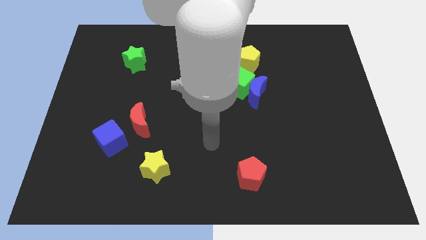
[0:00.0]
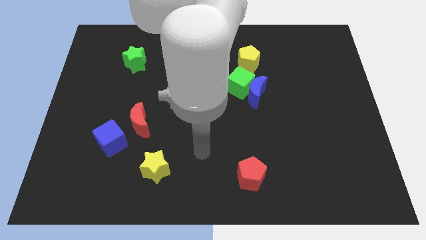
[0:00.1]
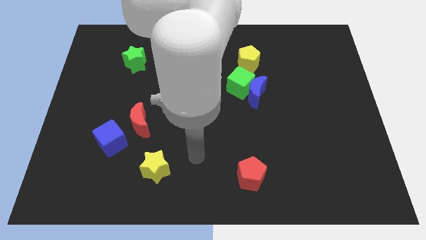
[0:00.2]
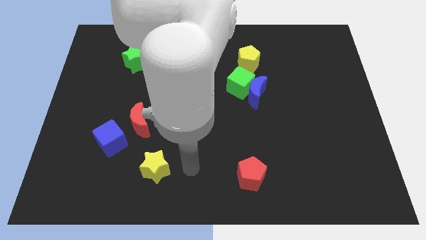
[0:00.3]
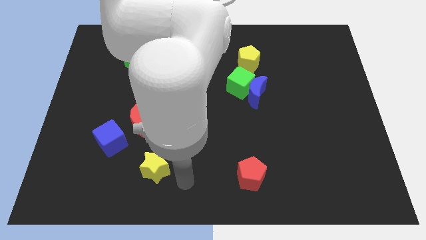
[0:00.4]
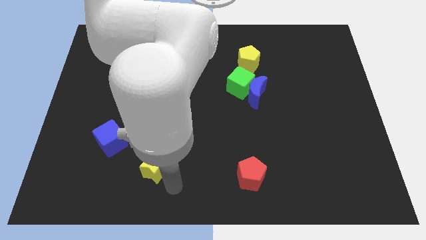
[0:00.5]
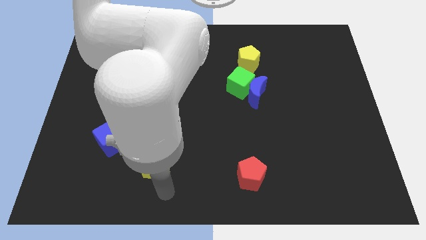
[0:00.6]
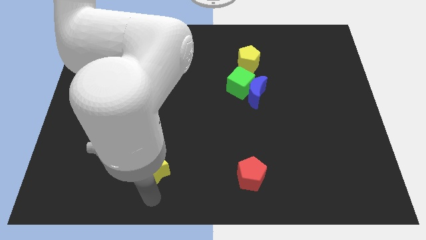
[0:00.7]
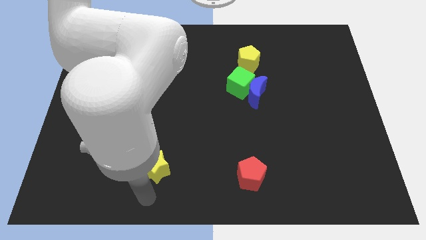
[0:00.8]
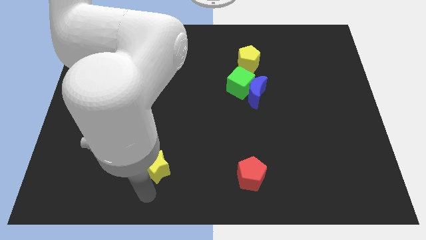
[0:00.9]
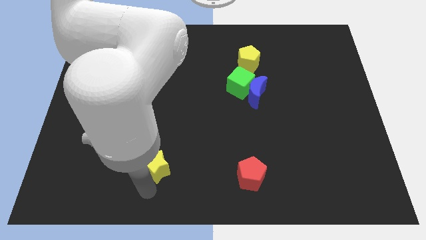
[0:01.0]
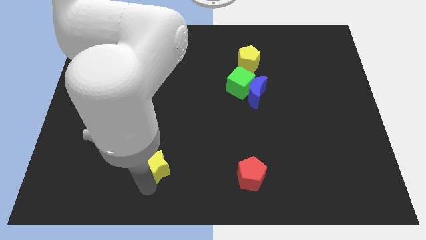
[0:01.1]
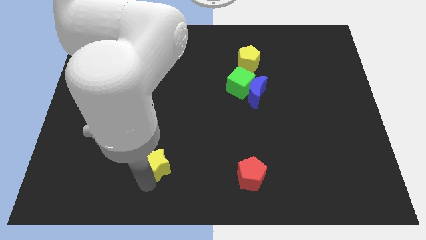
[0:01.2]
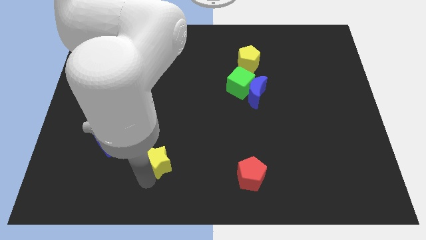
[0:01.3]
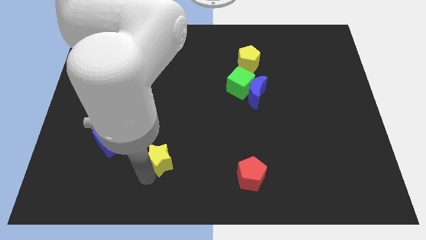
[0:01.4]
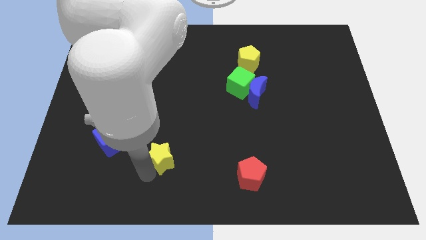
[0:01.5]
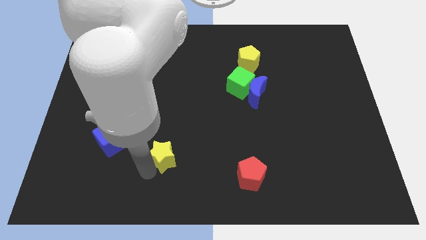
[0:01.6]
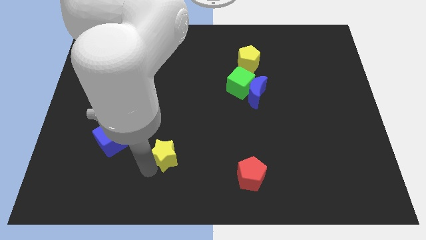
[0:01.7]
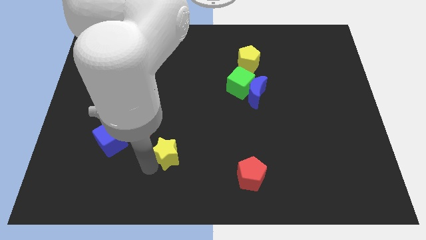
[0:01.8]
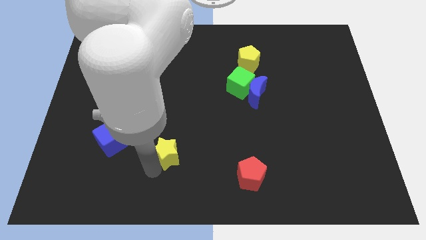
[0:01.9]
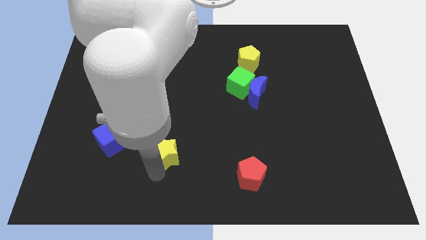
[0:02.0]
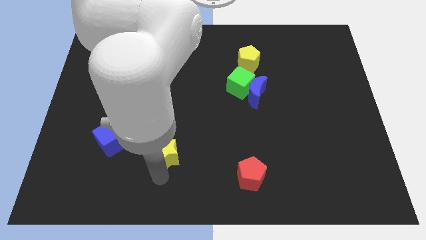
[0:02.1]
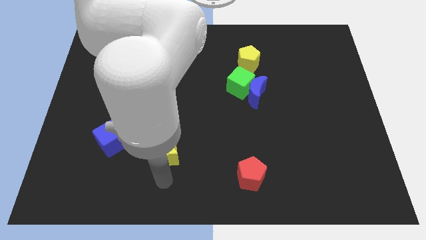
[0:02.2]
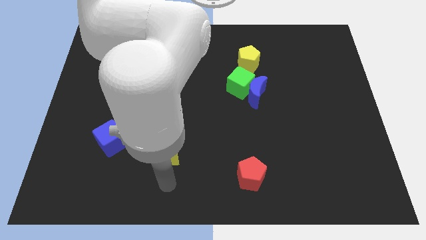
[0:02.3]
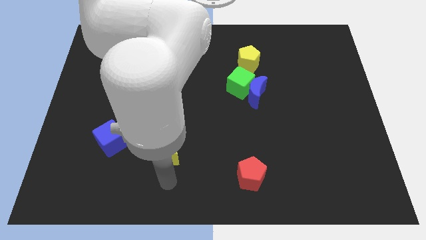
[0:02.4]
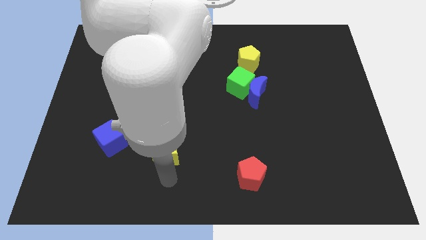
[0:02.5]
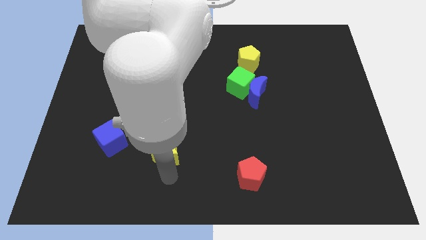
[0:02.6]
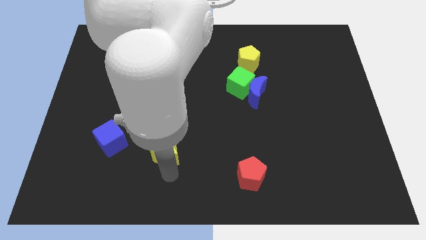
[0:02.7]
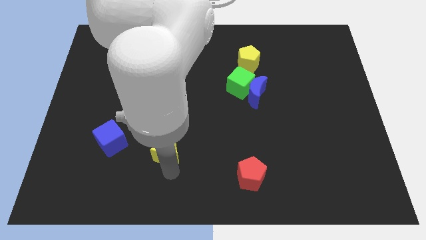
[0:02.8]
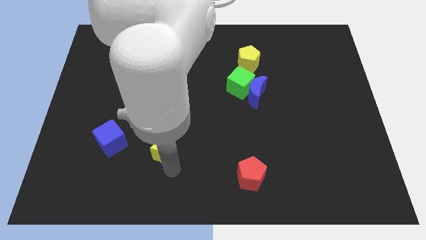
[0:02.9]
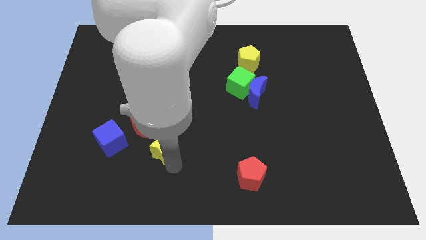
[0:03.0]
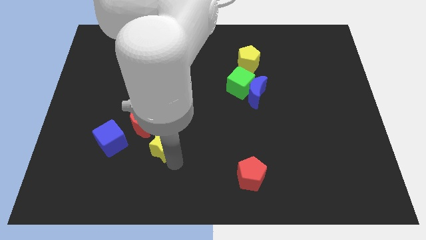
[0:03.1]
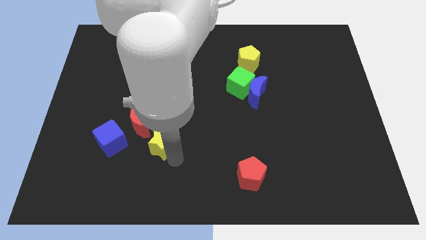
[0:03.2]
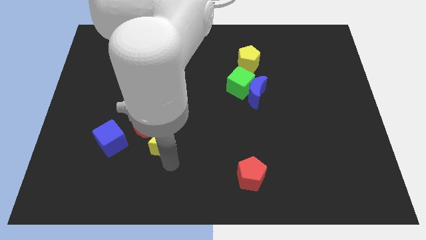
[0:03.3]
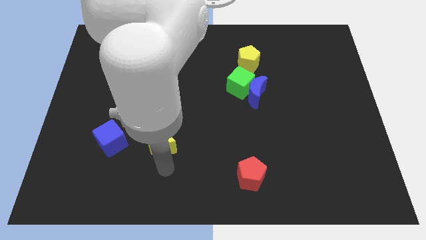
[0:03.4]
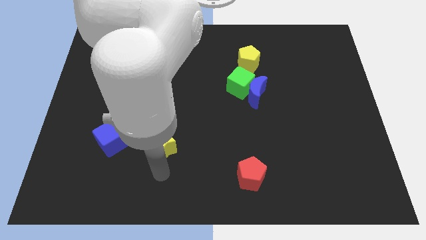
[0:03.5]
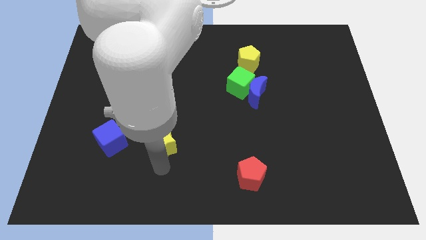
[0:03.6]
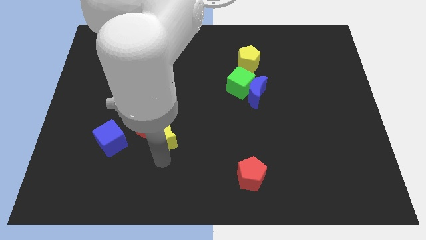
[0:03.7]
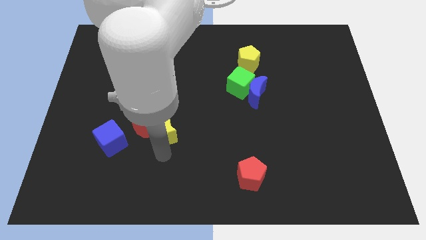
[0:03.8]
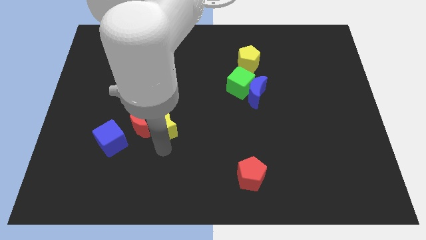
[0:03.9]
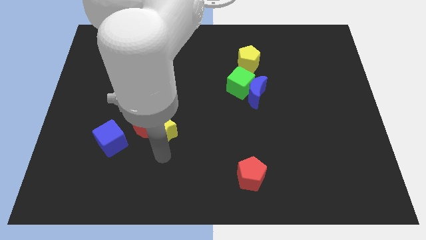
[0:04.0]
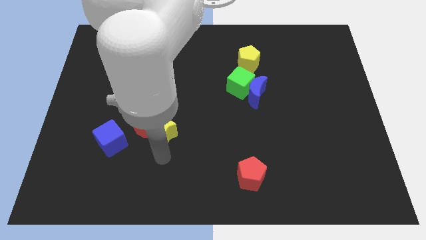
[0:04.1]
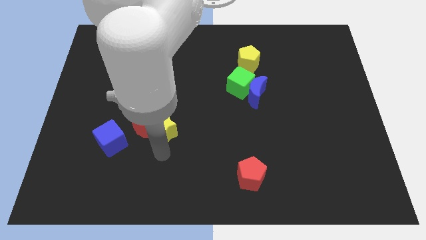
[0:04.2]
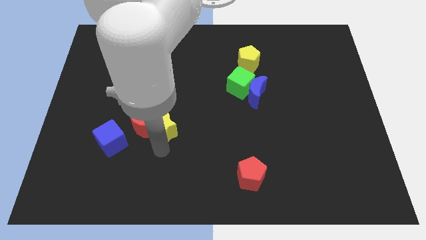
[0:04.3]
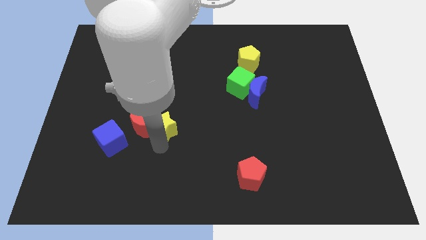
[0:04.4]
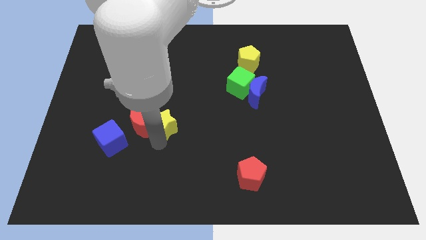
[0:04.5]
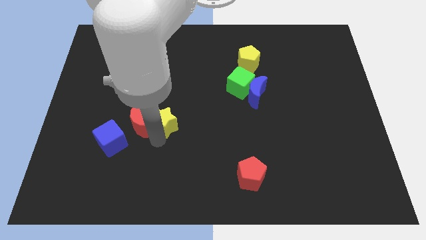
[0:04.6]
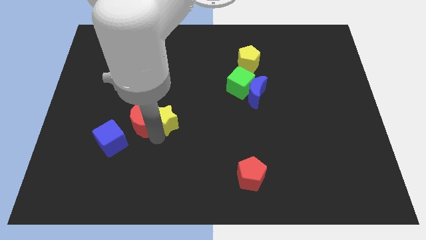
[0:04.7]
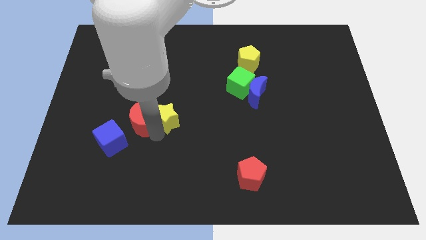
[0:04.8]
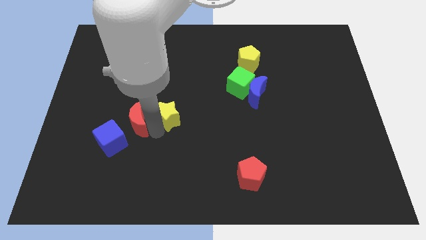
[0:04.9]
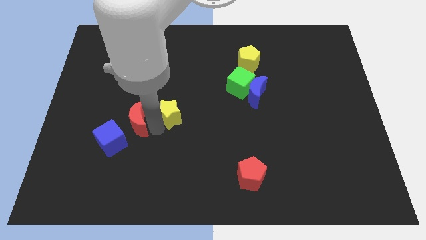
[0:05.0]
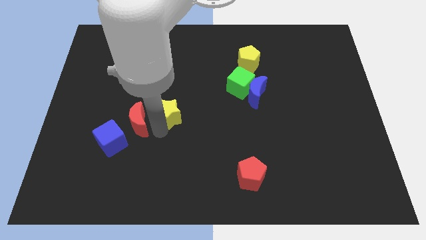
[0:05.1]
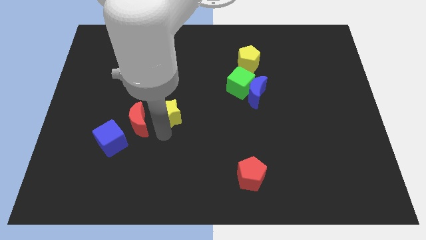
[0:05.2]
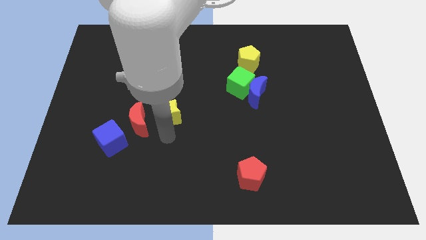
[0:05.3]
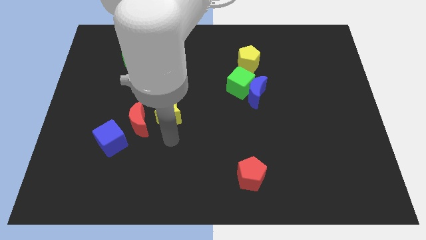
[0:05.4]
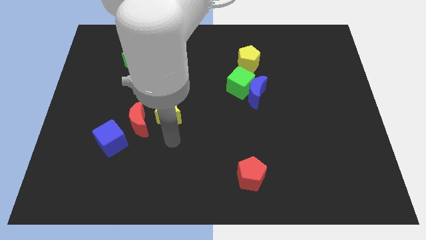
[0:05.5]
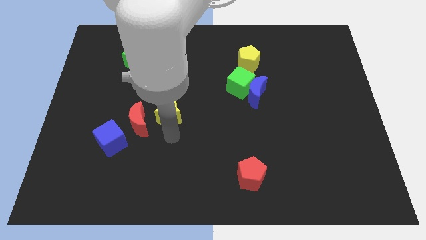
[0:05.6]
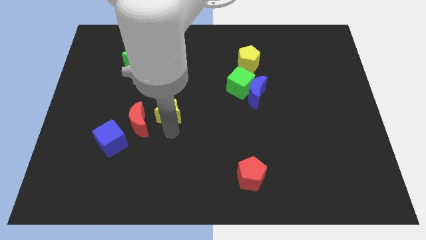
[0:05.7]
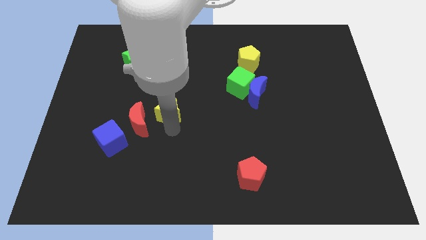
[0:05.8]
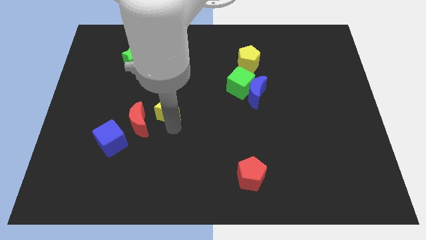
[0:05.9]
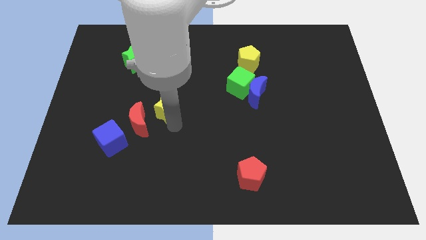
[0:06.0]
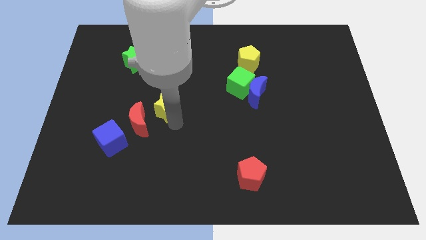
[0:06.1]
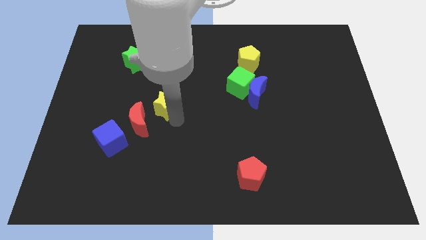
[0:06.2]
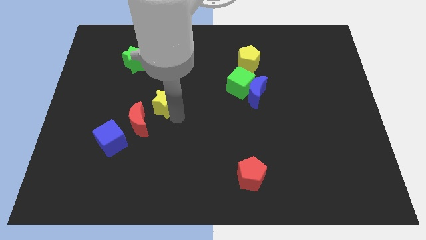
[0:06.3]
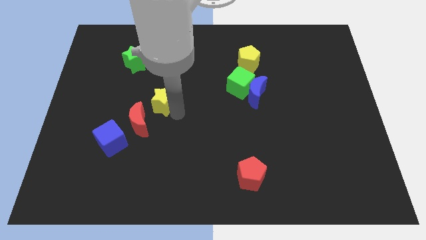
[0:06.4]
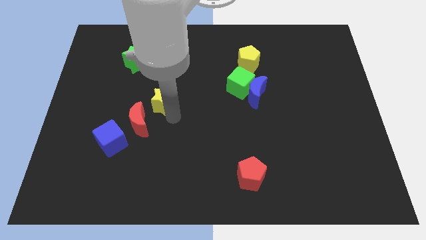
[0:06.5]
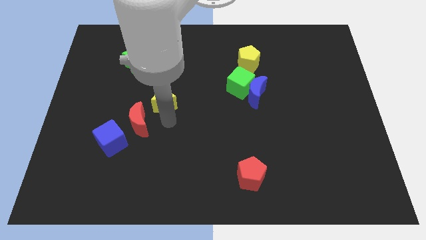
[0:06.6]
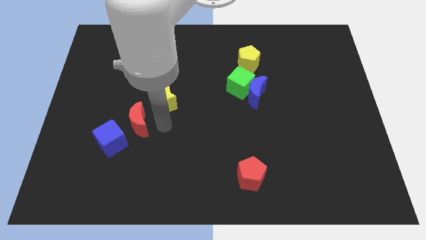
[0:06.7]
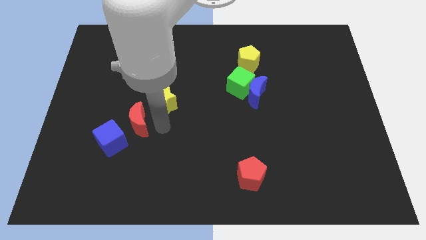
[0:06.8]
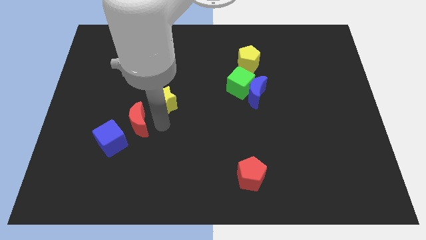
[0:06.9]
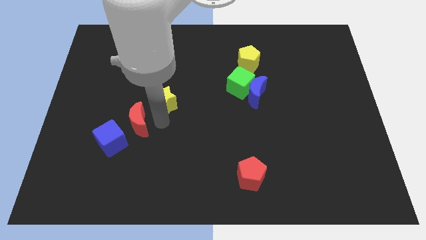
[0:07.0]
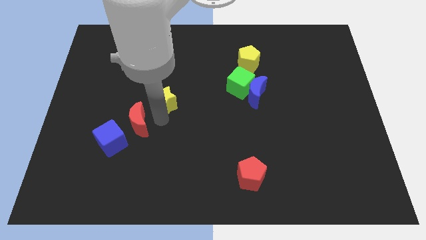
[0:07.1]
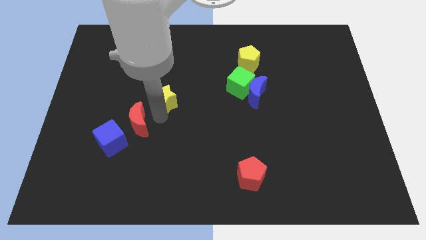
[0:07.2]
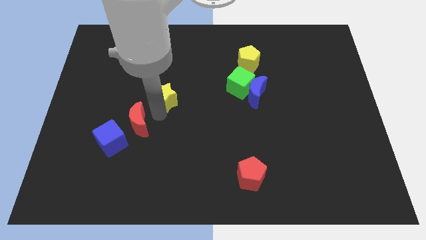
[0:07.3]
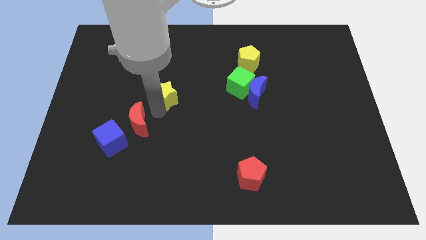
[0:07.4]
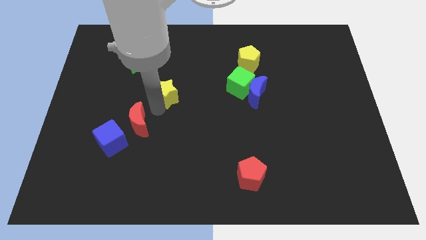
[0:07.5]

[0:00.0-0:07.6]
move the yellow star up
